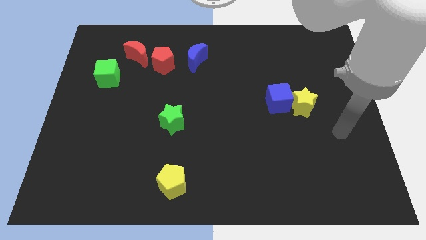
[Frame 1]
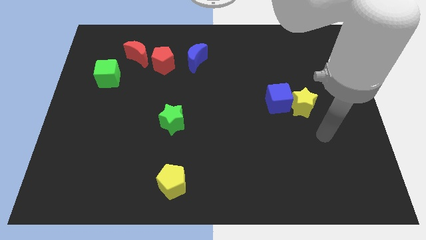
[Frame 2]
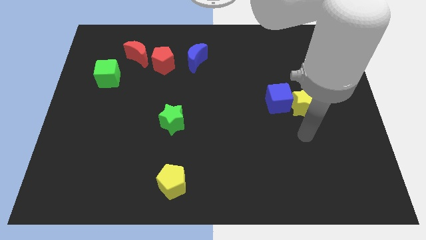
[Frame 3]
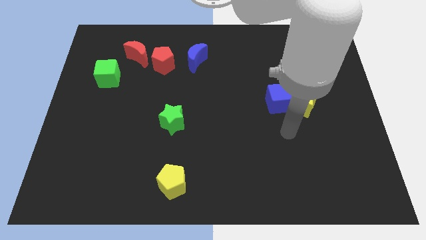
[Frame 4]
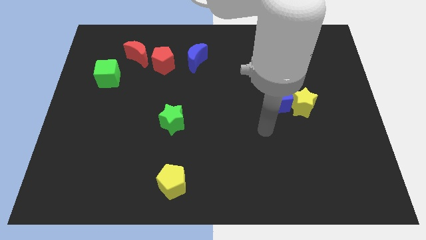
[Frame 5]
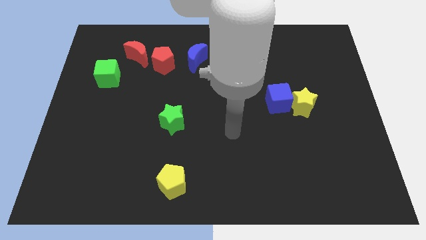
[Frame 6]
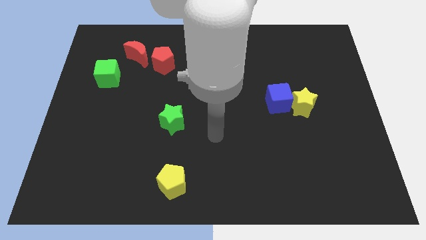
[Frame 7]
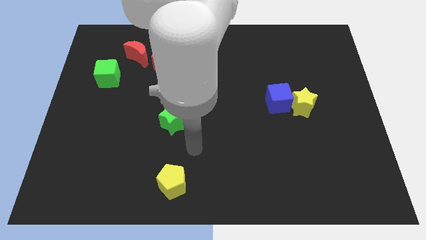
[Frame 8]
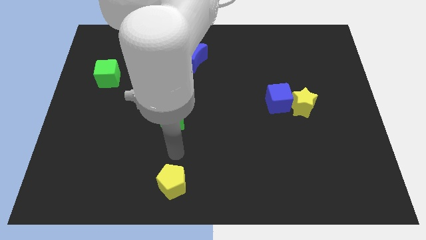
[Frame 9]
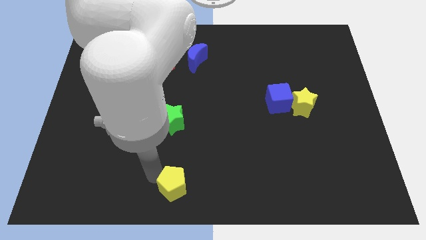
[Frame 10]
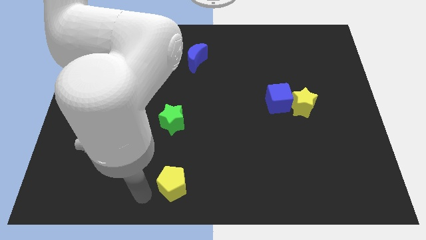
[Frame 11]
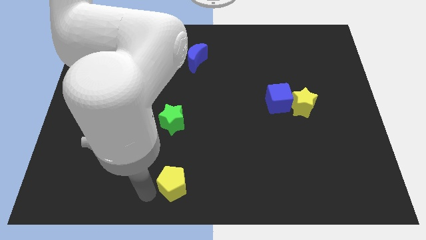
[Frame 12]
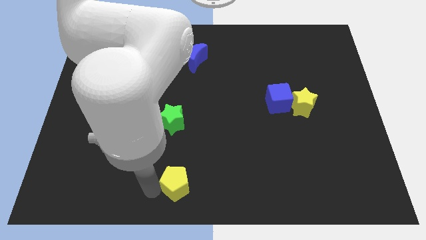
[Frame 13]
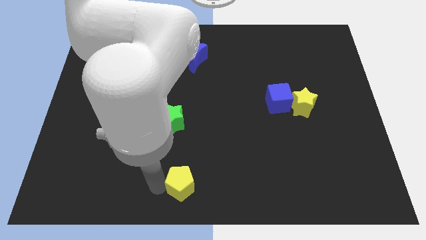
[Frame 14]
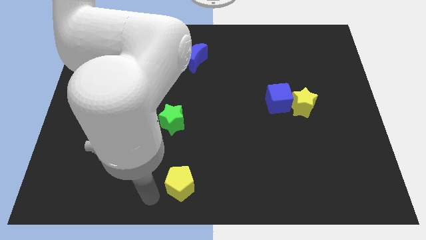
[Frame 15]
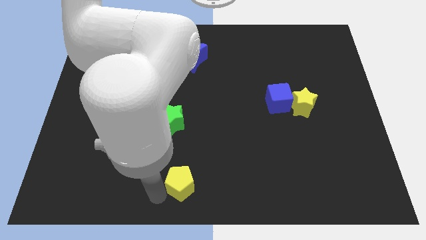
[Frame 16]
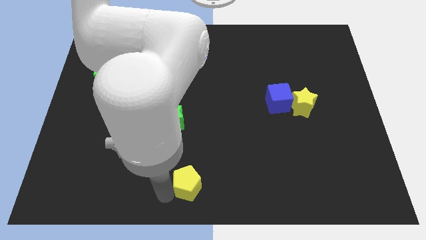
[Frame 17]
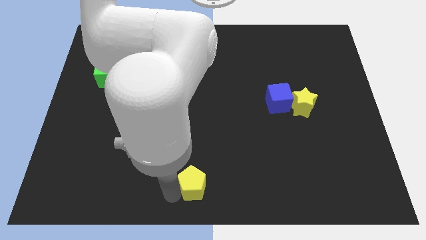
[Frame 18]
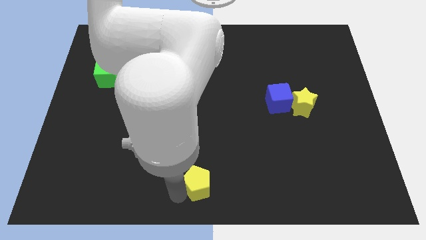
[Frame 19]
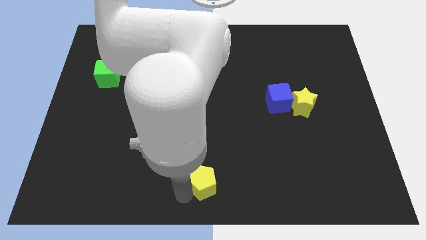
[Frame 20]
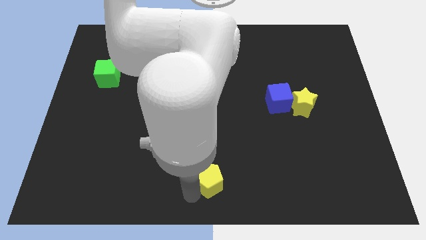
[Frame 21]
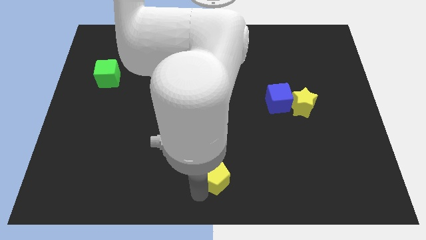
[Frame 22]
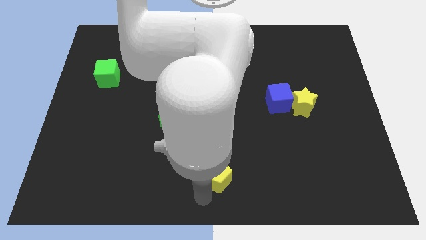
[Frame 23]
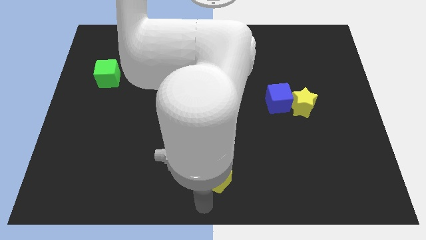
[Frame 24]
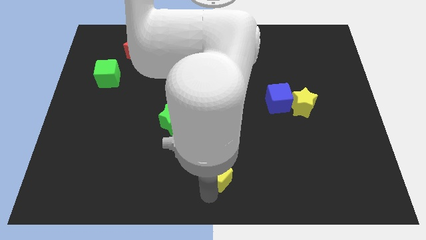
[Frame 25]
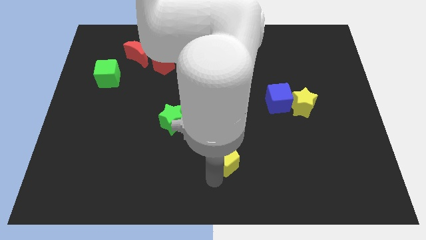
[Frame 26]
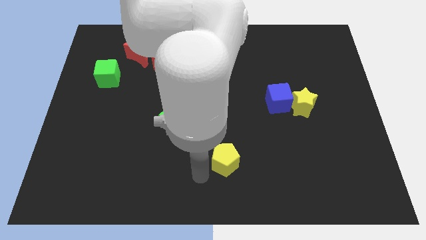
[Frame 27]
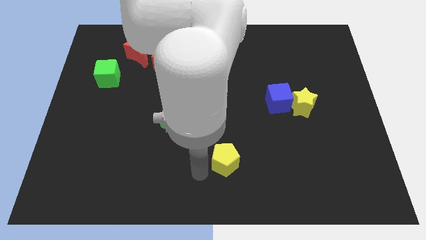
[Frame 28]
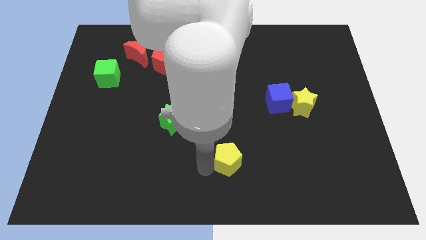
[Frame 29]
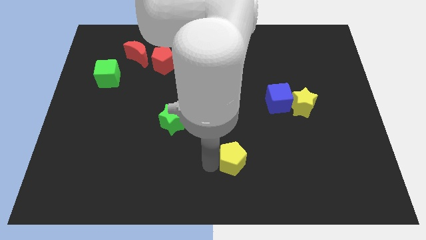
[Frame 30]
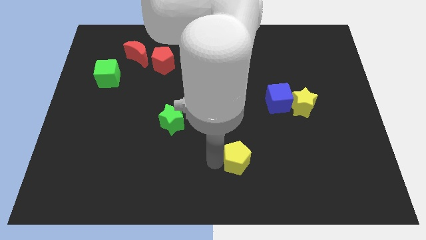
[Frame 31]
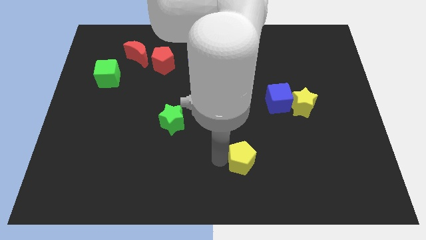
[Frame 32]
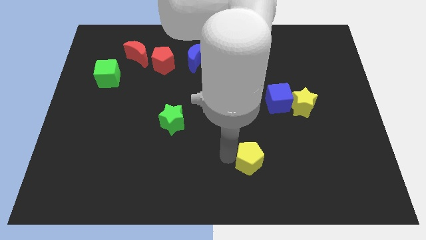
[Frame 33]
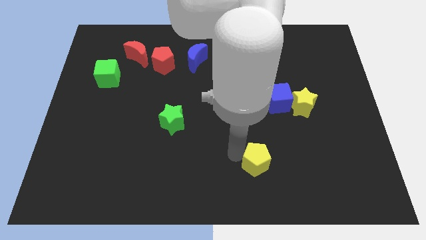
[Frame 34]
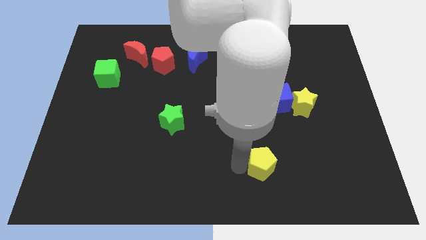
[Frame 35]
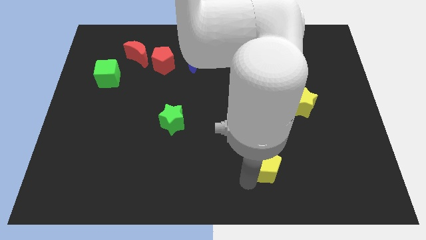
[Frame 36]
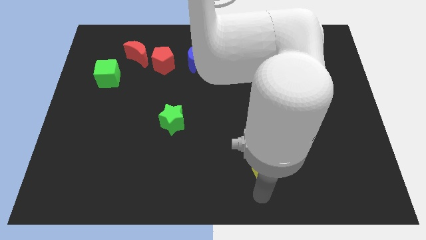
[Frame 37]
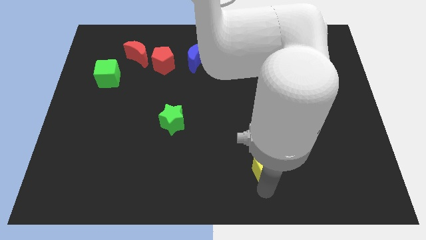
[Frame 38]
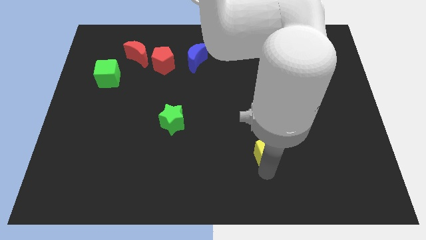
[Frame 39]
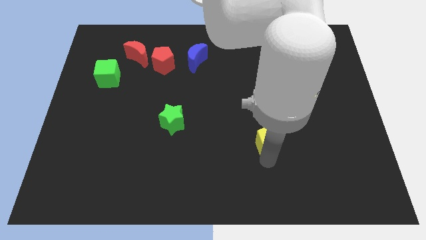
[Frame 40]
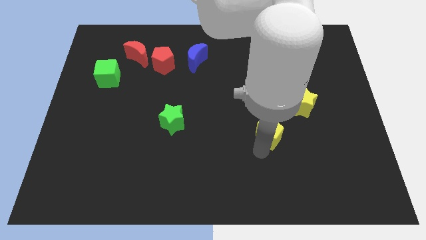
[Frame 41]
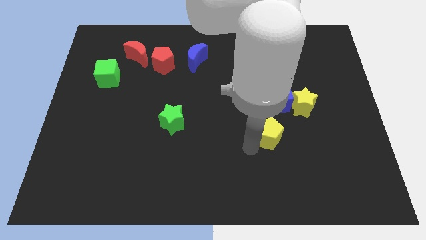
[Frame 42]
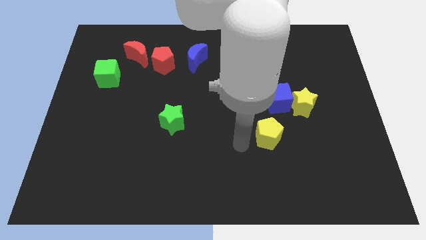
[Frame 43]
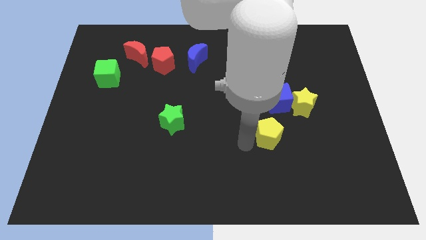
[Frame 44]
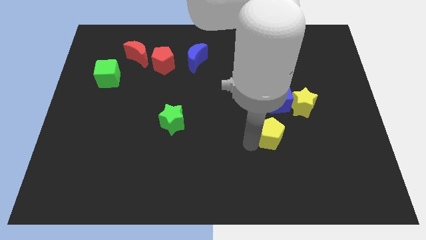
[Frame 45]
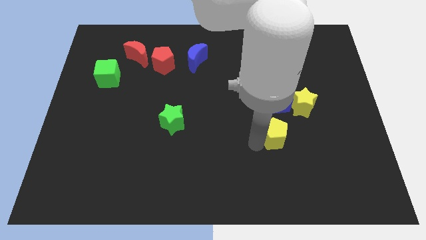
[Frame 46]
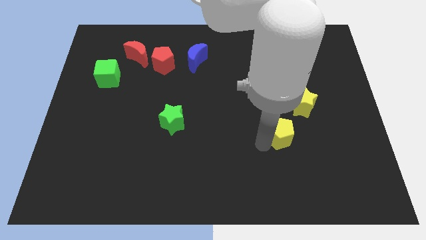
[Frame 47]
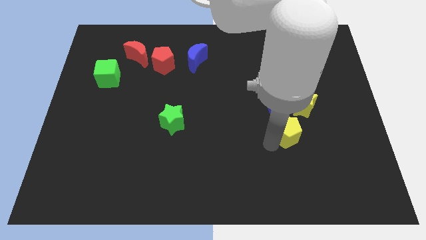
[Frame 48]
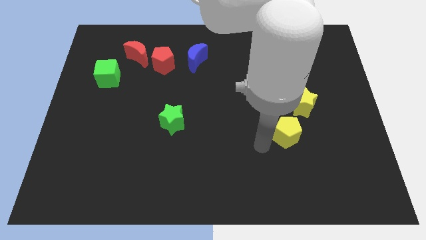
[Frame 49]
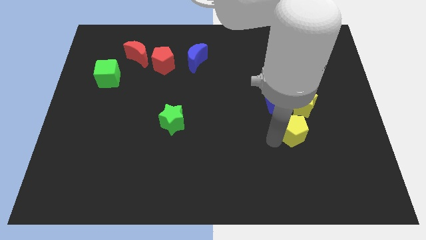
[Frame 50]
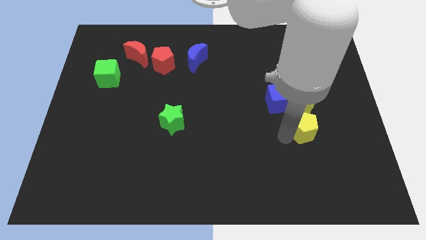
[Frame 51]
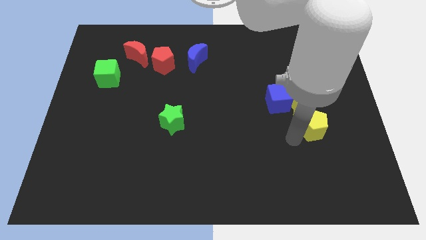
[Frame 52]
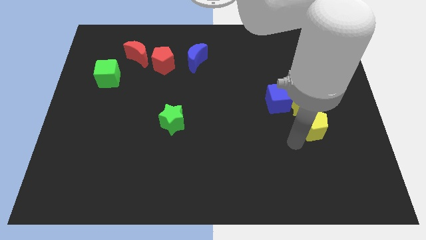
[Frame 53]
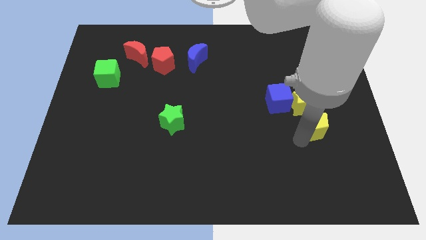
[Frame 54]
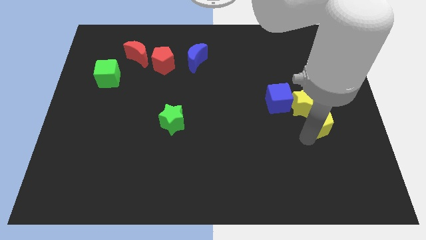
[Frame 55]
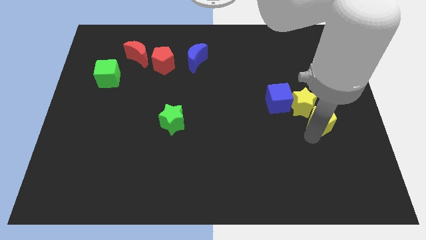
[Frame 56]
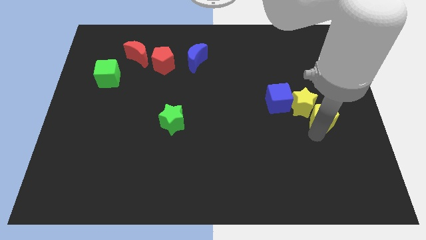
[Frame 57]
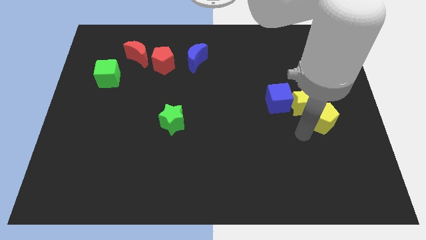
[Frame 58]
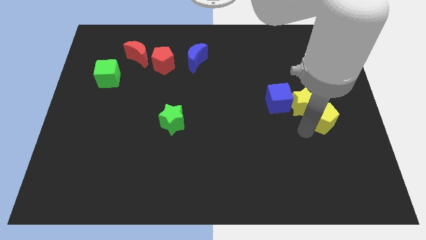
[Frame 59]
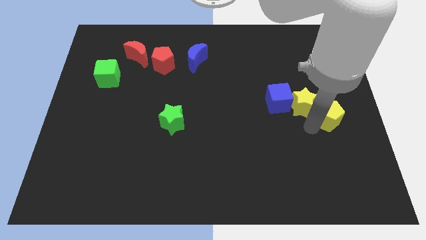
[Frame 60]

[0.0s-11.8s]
slide the yellow pentagon to the center right

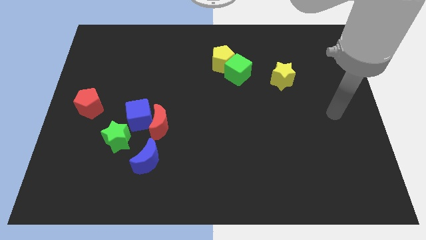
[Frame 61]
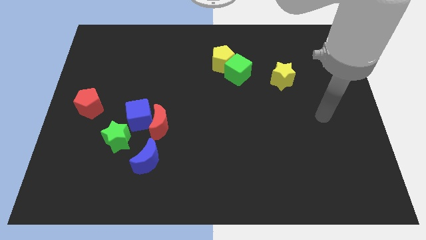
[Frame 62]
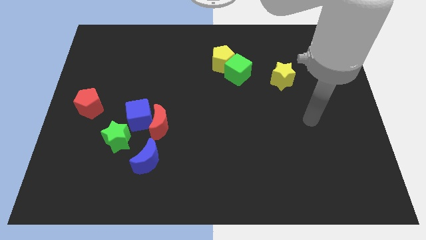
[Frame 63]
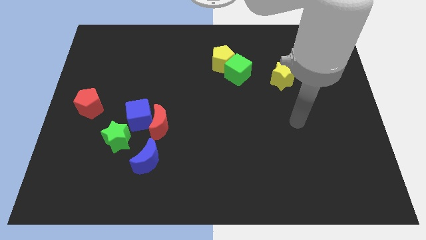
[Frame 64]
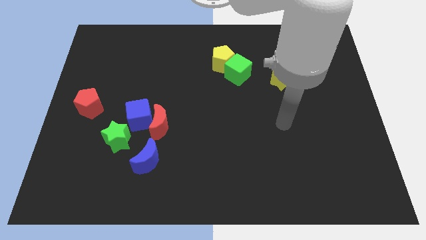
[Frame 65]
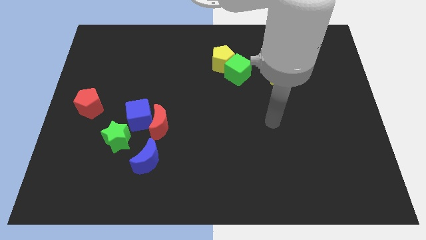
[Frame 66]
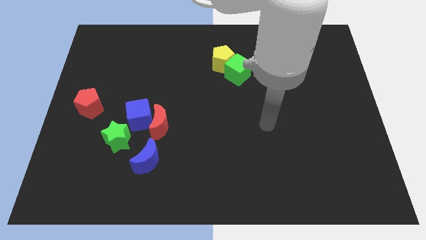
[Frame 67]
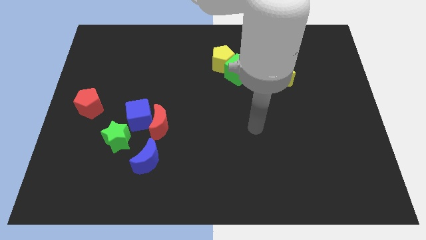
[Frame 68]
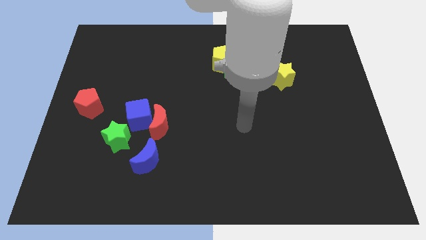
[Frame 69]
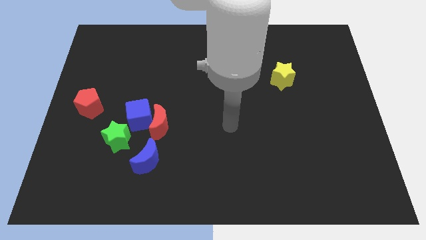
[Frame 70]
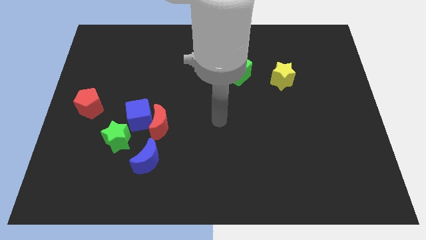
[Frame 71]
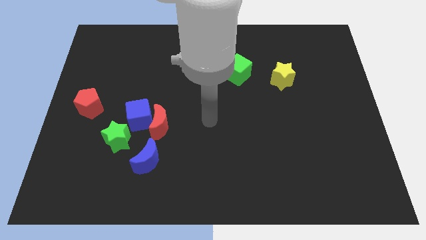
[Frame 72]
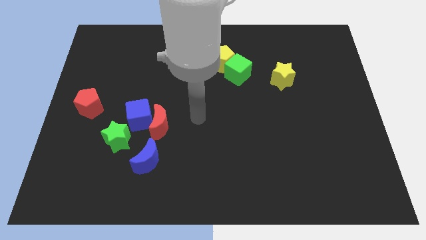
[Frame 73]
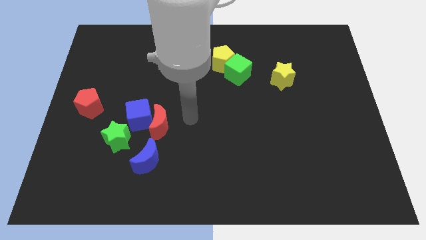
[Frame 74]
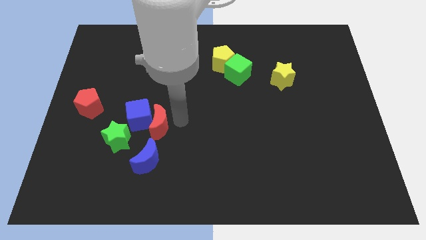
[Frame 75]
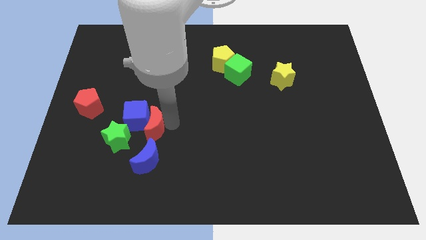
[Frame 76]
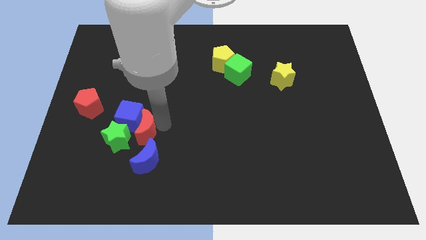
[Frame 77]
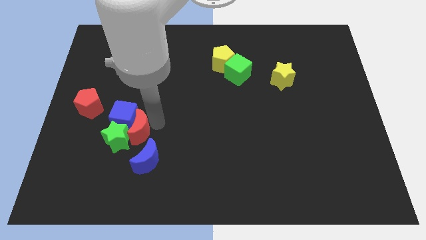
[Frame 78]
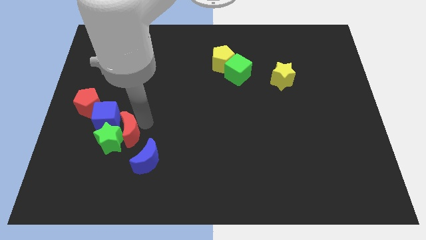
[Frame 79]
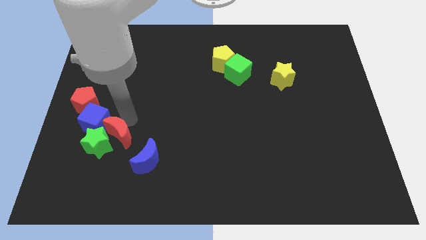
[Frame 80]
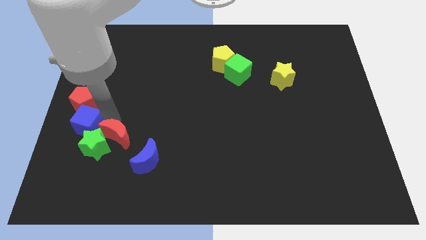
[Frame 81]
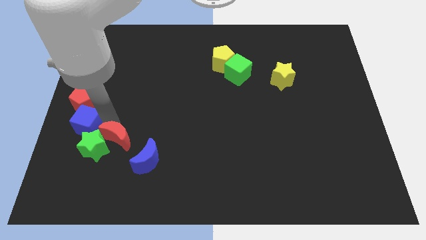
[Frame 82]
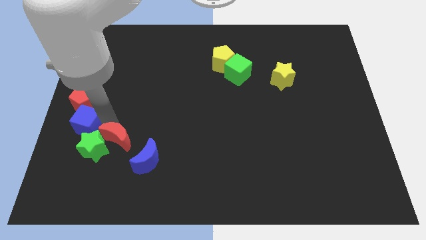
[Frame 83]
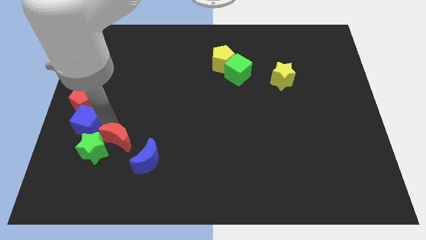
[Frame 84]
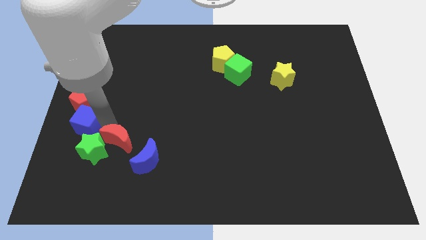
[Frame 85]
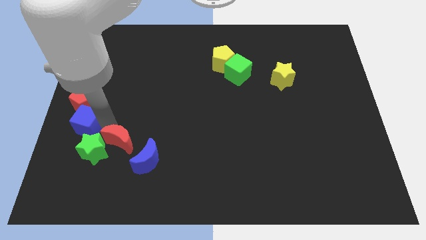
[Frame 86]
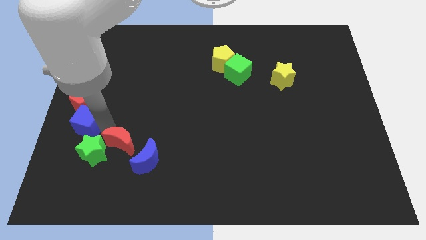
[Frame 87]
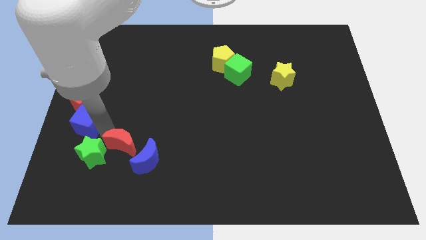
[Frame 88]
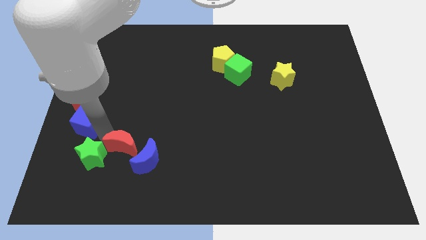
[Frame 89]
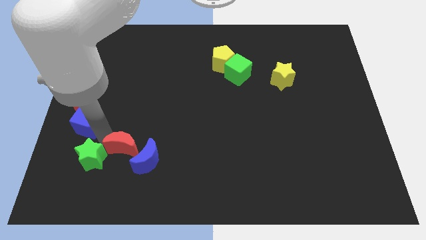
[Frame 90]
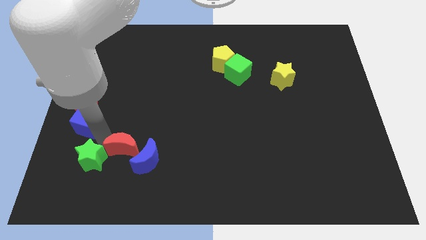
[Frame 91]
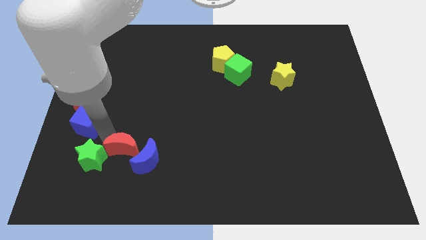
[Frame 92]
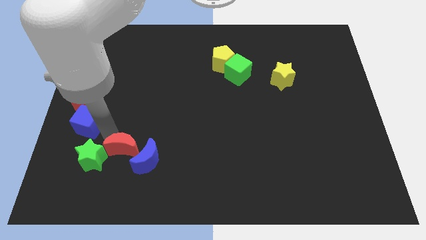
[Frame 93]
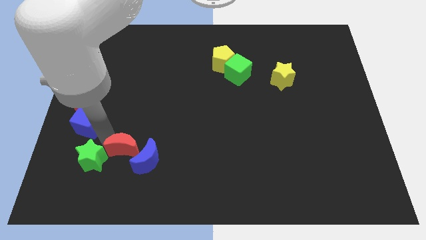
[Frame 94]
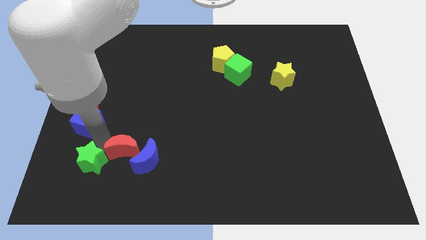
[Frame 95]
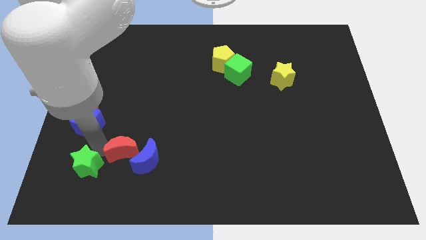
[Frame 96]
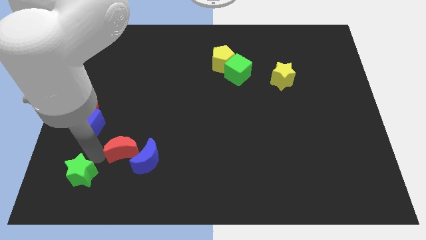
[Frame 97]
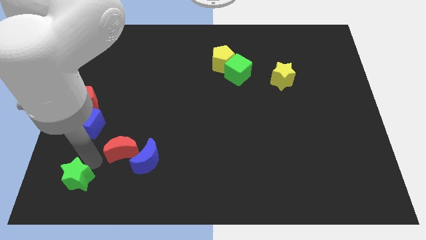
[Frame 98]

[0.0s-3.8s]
push the green star to the bottom left corner
